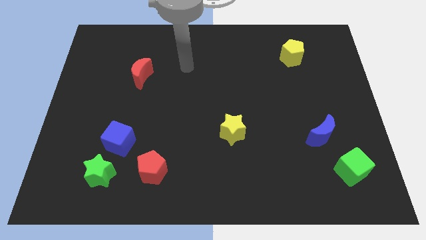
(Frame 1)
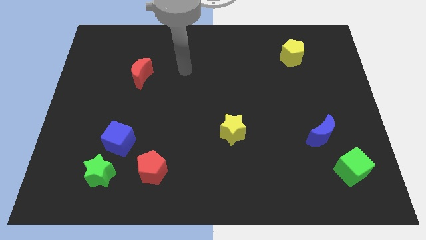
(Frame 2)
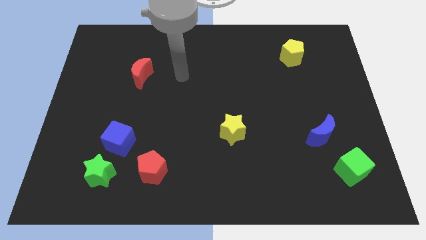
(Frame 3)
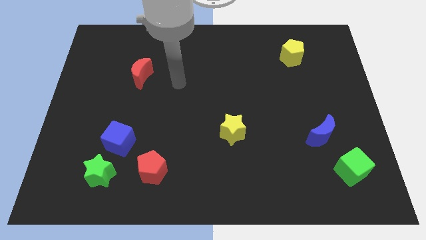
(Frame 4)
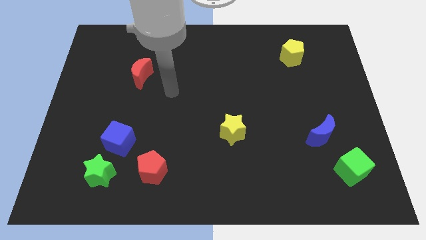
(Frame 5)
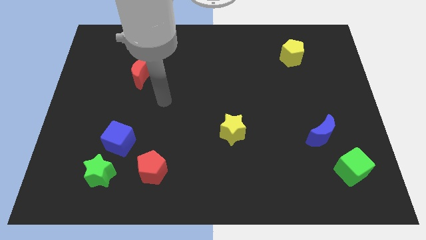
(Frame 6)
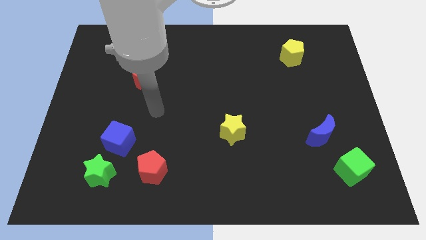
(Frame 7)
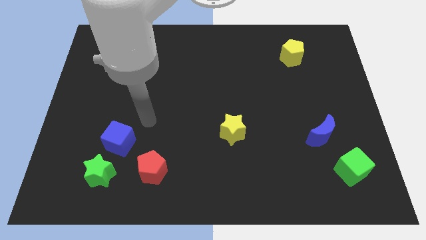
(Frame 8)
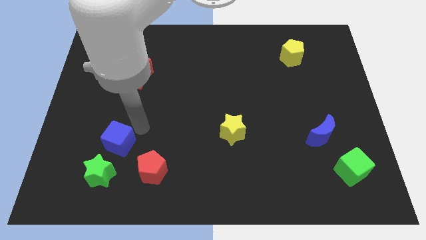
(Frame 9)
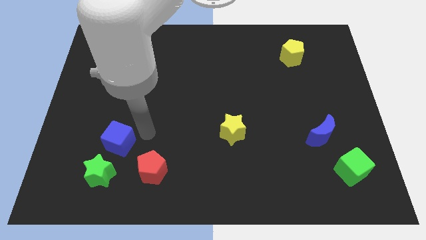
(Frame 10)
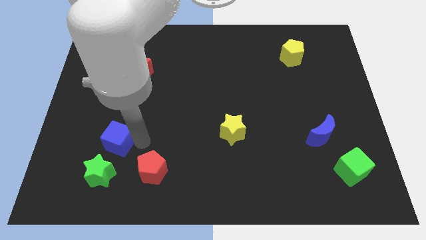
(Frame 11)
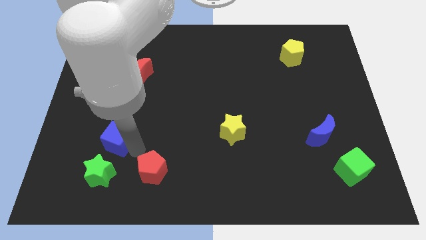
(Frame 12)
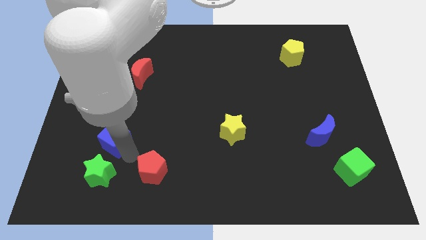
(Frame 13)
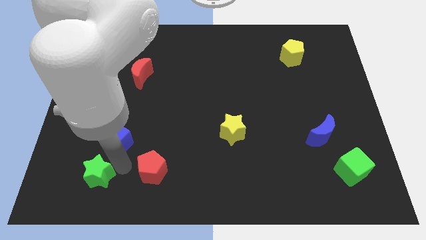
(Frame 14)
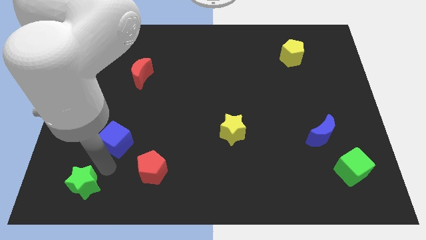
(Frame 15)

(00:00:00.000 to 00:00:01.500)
pull the blue cube apart from the green star

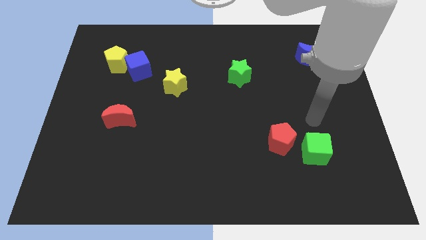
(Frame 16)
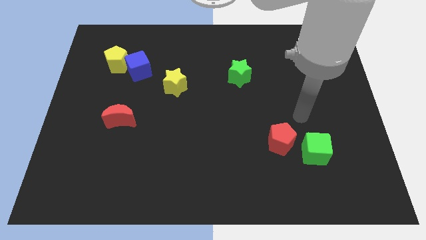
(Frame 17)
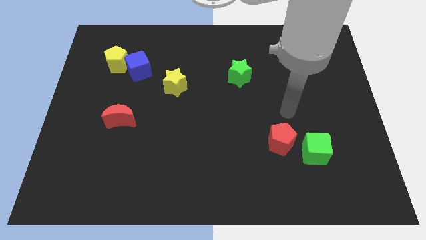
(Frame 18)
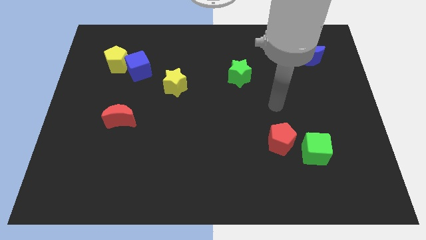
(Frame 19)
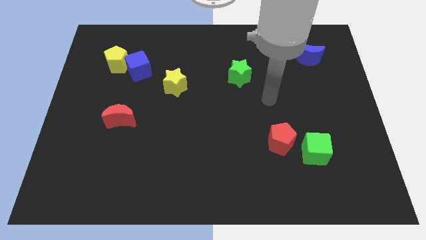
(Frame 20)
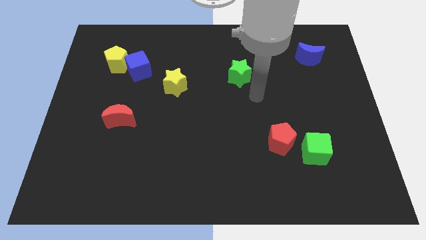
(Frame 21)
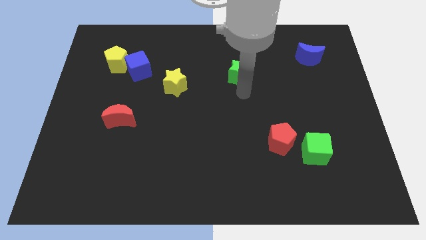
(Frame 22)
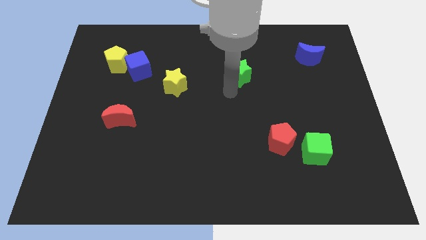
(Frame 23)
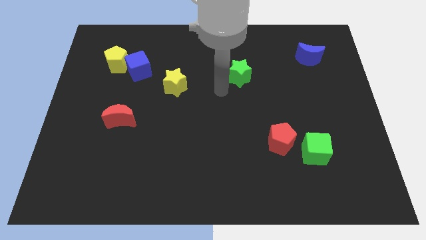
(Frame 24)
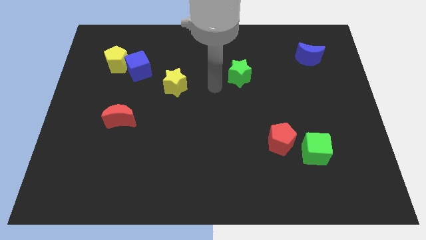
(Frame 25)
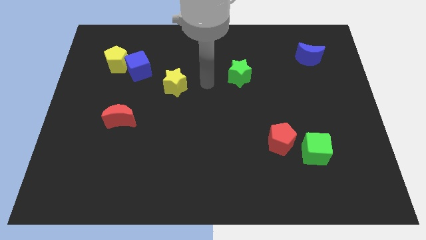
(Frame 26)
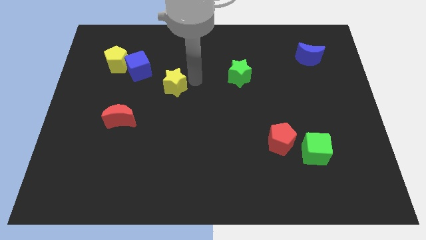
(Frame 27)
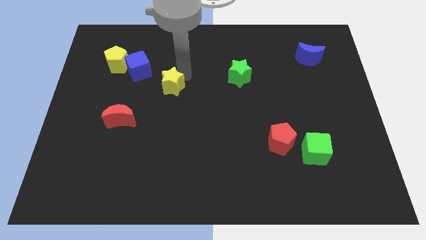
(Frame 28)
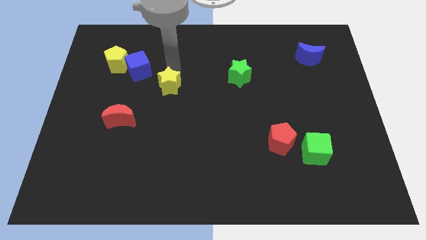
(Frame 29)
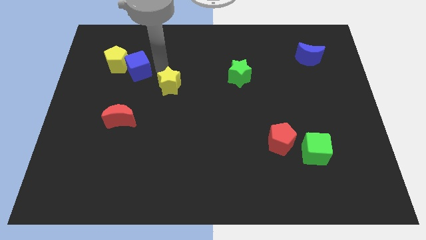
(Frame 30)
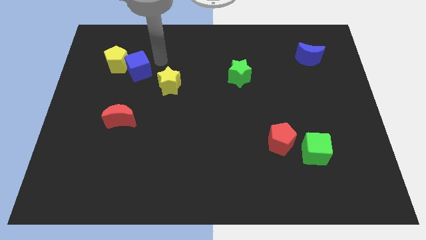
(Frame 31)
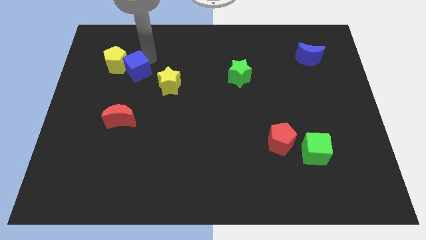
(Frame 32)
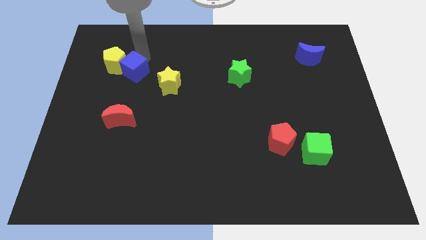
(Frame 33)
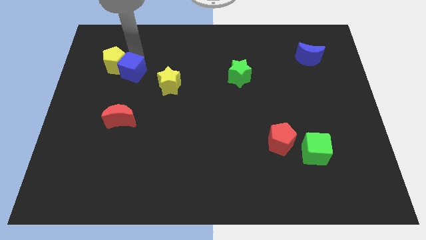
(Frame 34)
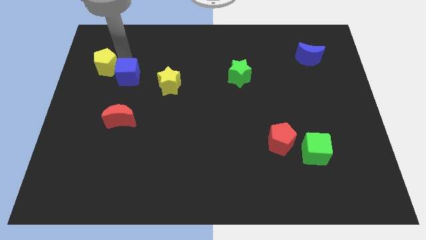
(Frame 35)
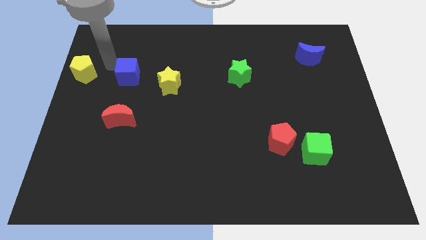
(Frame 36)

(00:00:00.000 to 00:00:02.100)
move the blue cube away from the yellow pentagon

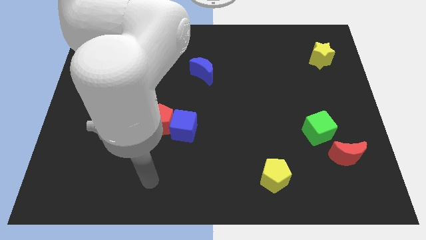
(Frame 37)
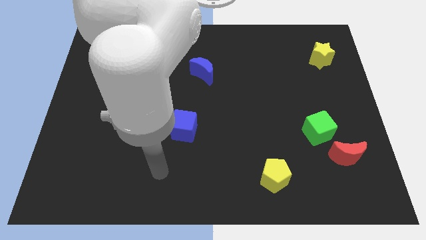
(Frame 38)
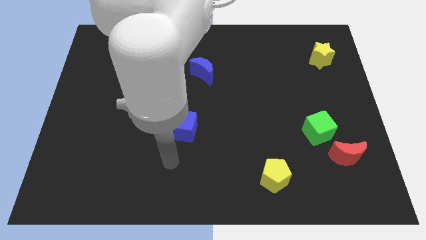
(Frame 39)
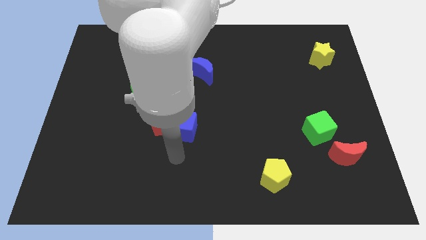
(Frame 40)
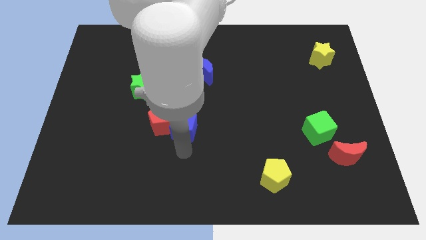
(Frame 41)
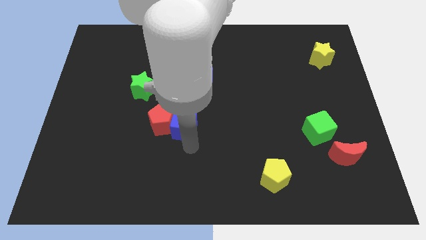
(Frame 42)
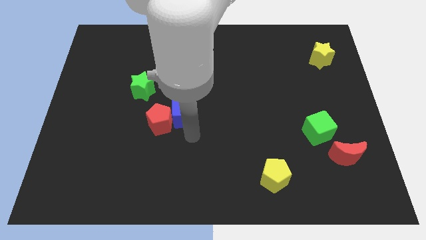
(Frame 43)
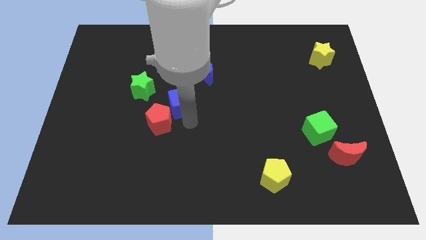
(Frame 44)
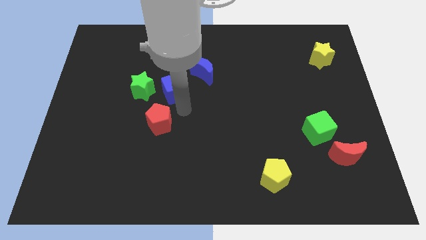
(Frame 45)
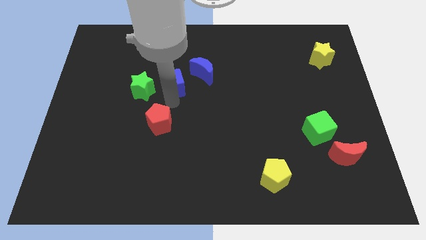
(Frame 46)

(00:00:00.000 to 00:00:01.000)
separate the red pentagon from the blue cube

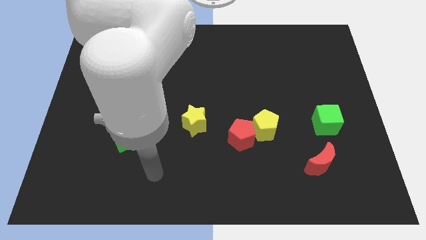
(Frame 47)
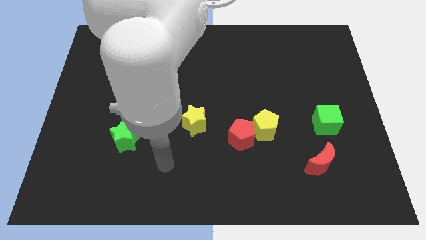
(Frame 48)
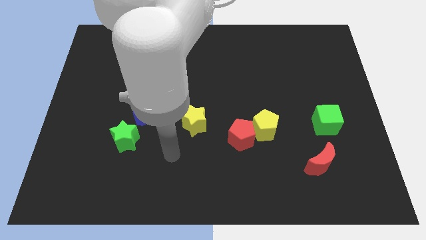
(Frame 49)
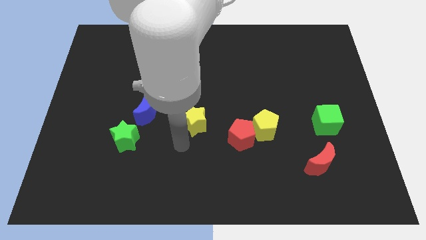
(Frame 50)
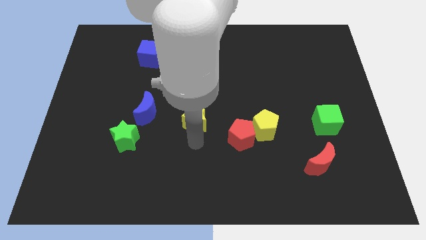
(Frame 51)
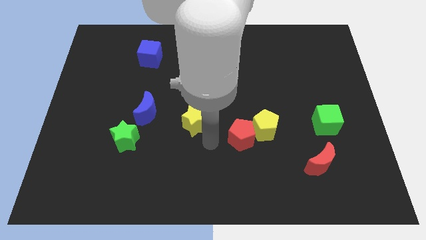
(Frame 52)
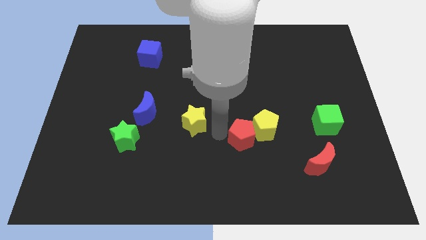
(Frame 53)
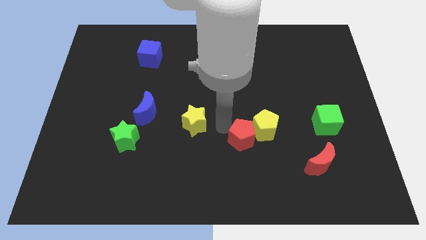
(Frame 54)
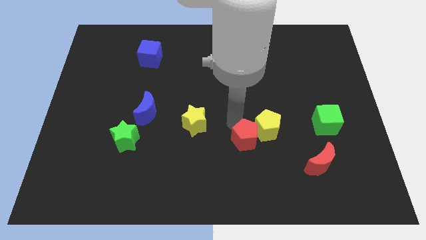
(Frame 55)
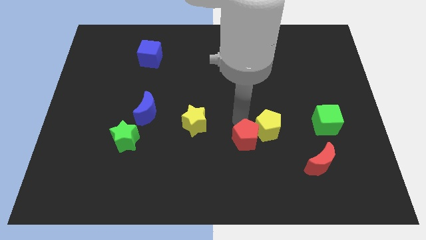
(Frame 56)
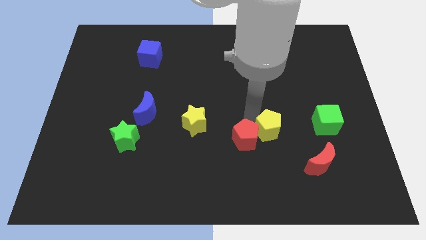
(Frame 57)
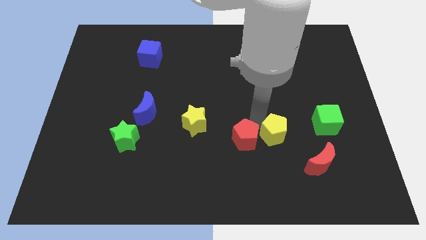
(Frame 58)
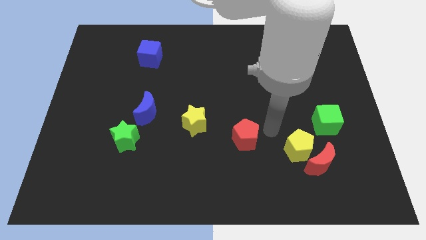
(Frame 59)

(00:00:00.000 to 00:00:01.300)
pull the red pentagon apart from the yellow pentagon

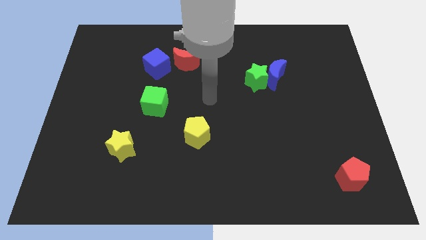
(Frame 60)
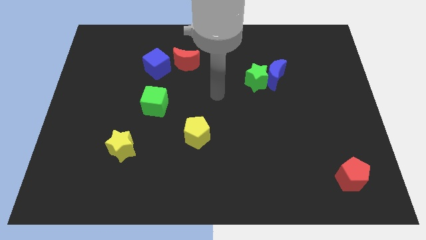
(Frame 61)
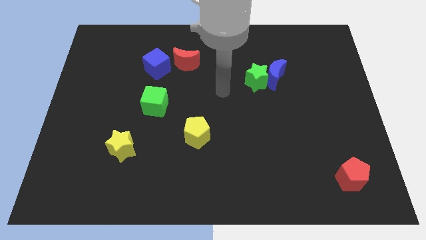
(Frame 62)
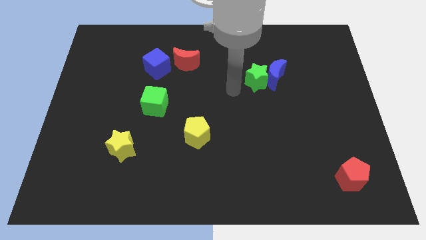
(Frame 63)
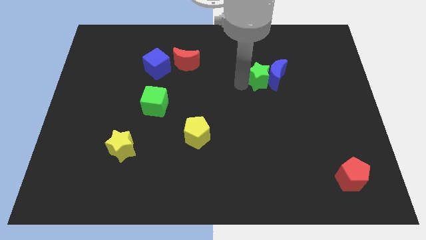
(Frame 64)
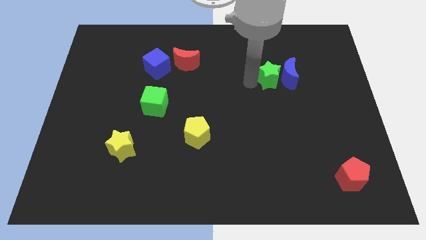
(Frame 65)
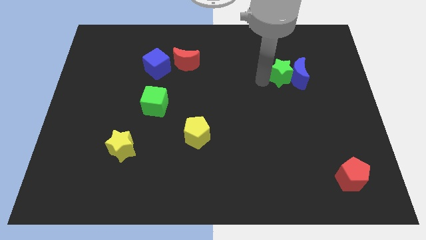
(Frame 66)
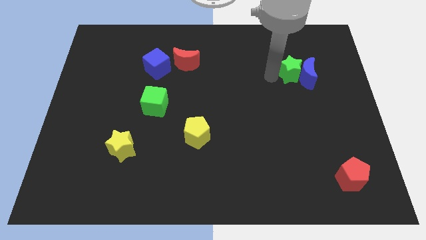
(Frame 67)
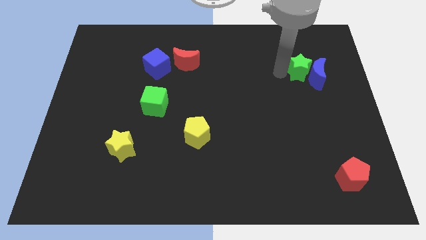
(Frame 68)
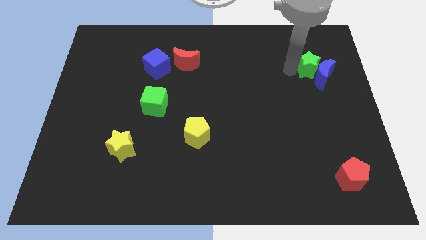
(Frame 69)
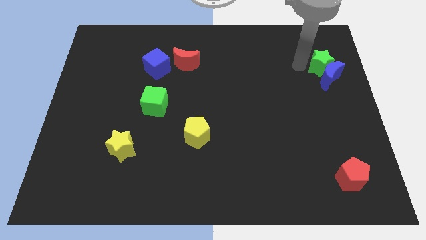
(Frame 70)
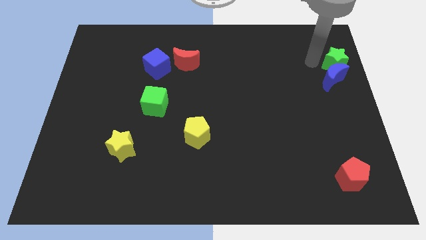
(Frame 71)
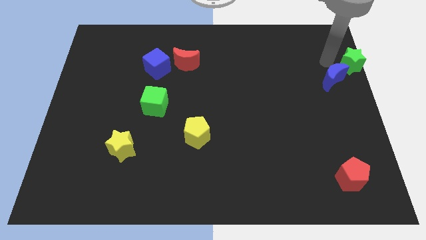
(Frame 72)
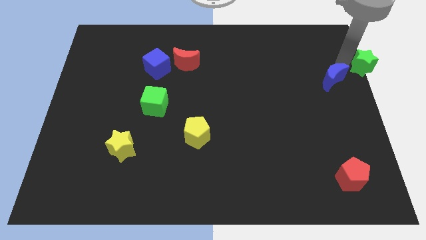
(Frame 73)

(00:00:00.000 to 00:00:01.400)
pull the blue moon apart from the green star

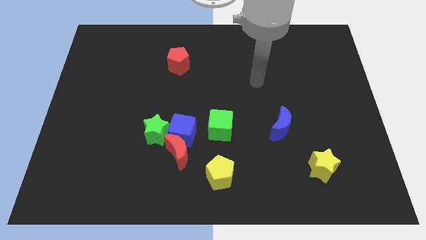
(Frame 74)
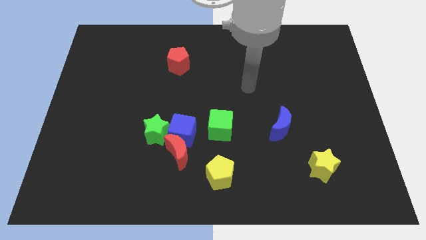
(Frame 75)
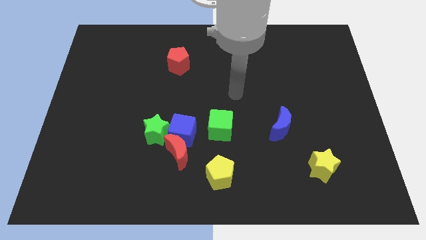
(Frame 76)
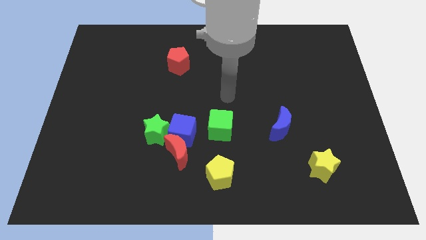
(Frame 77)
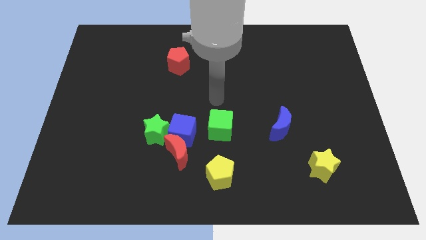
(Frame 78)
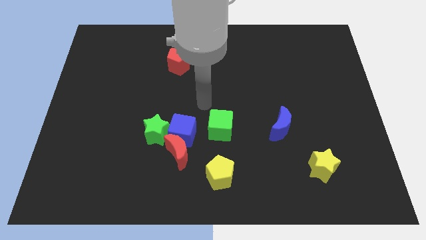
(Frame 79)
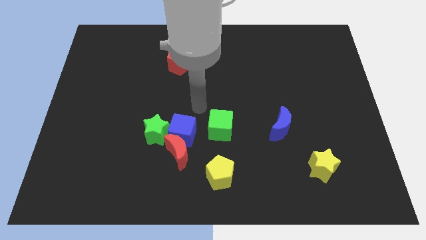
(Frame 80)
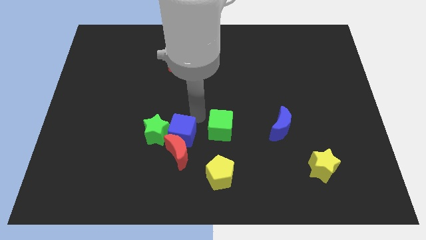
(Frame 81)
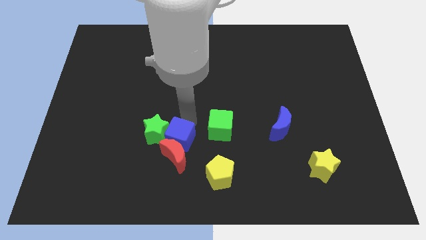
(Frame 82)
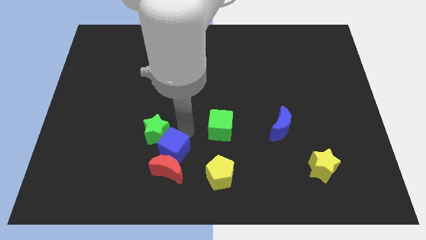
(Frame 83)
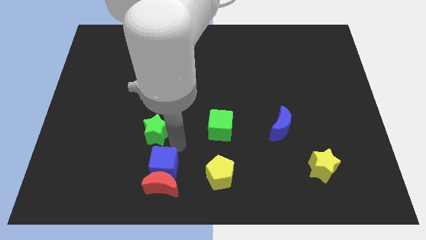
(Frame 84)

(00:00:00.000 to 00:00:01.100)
move the green star away from the blue cube and red moon

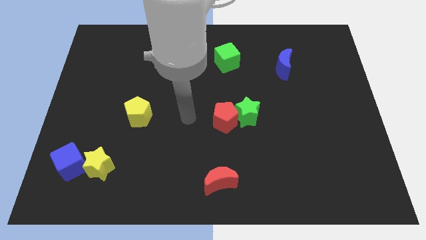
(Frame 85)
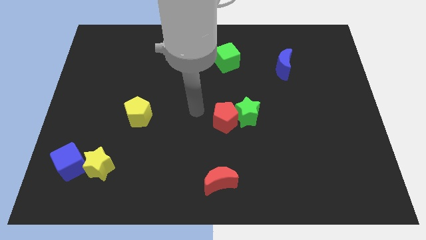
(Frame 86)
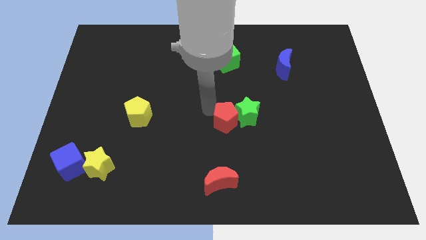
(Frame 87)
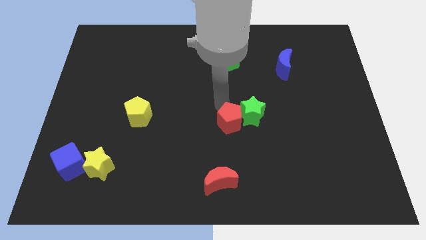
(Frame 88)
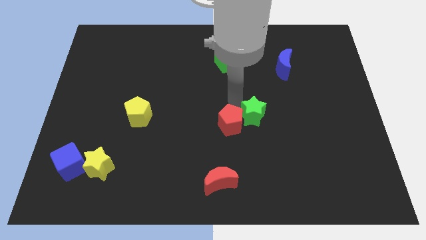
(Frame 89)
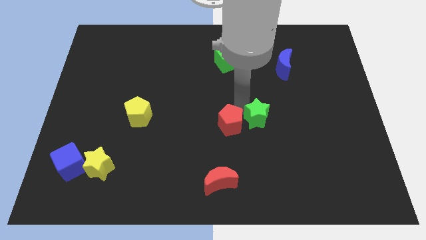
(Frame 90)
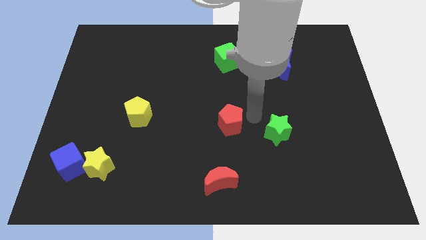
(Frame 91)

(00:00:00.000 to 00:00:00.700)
separate the red pentagon from the green star

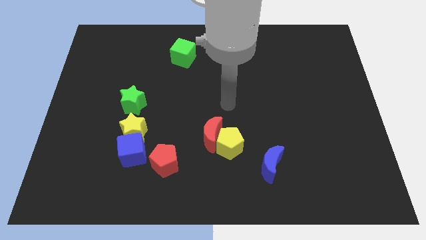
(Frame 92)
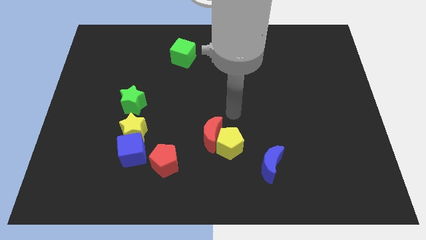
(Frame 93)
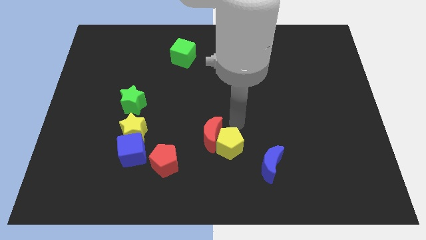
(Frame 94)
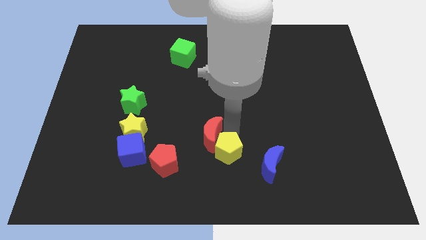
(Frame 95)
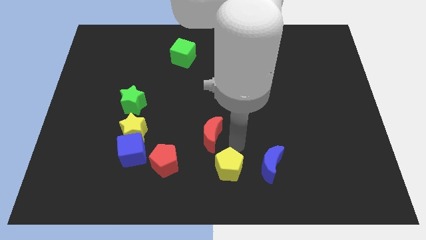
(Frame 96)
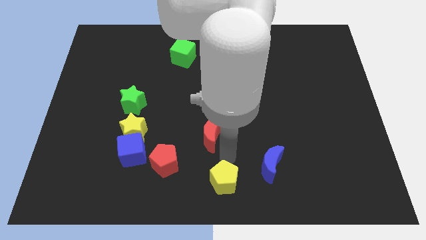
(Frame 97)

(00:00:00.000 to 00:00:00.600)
pull the red moon apart from the yellow pentagon
